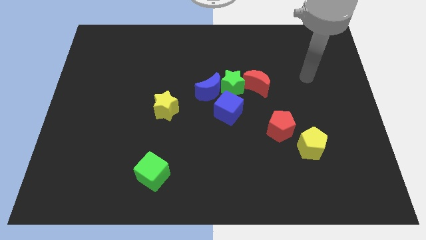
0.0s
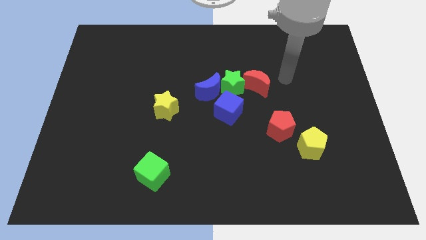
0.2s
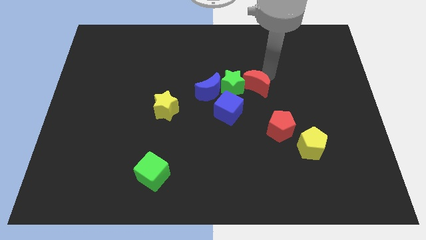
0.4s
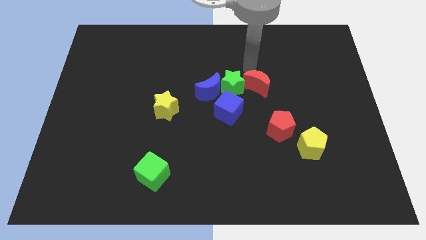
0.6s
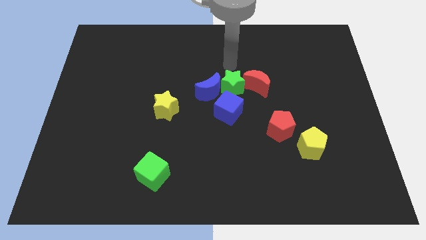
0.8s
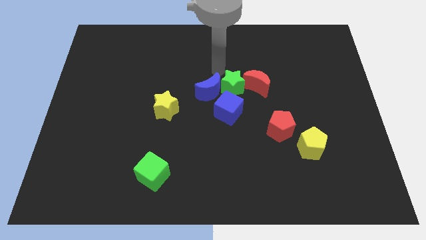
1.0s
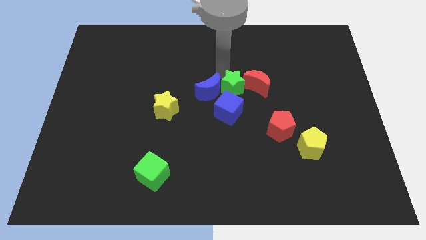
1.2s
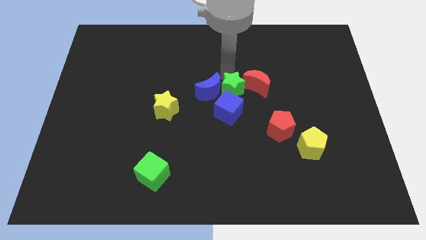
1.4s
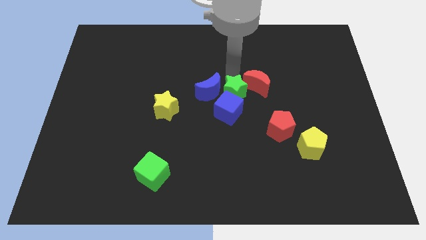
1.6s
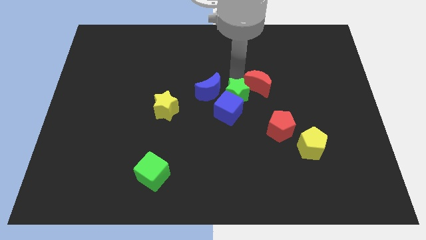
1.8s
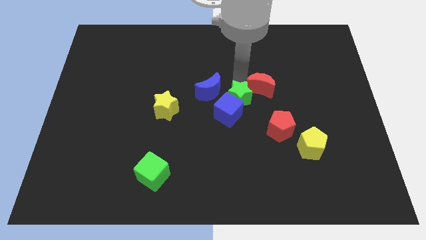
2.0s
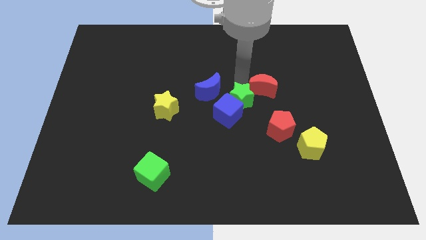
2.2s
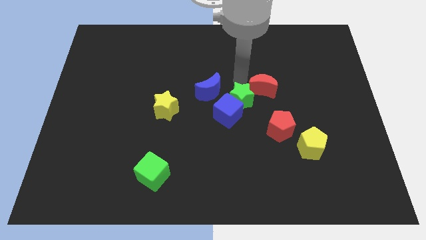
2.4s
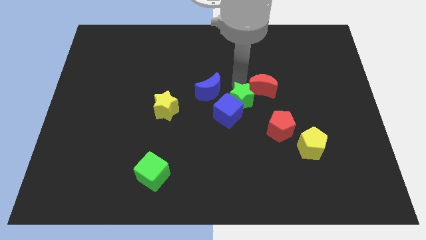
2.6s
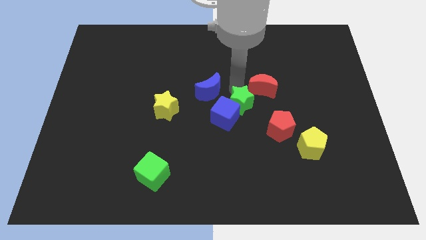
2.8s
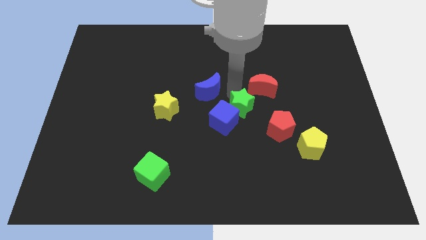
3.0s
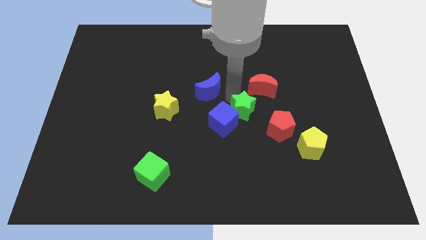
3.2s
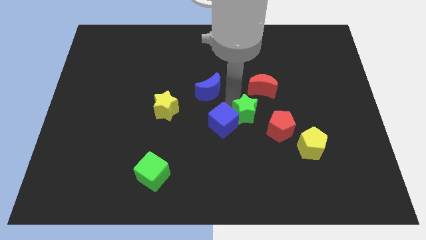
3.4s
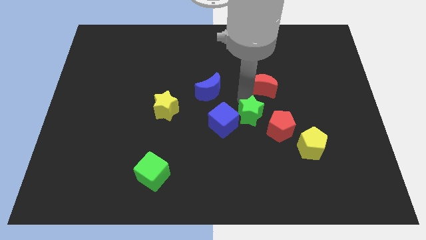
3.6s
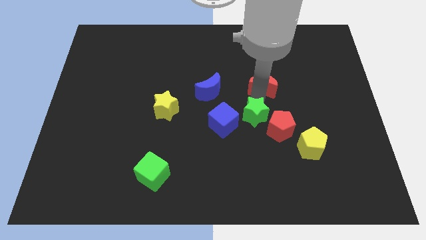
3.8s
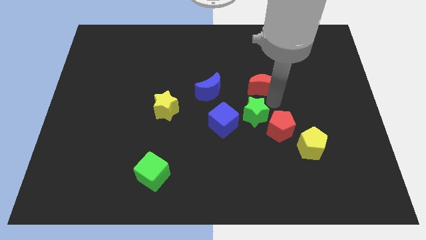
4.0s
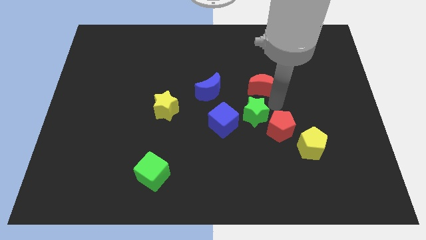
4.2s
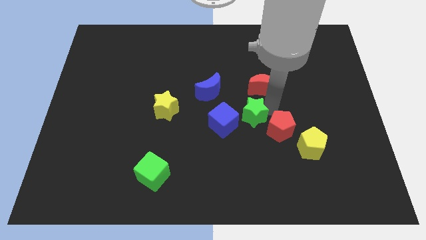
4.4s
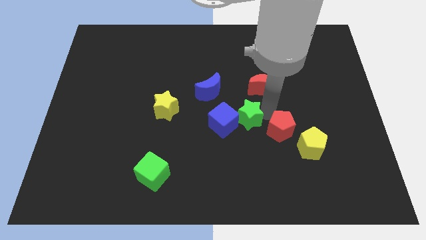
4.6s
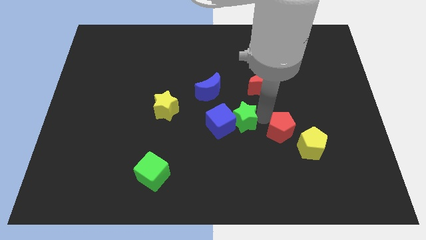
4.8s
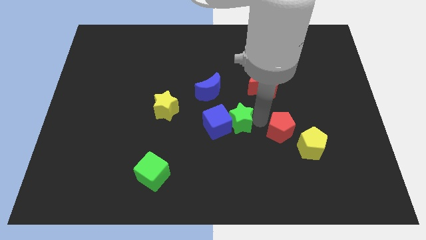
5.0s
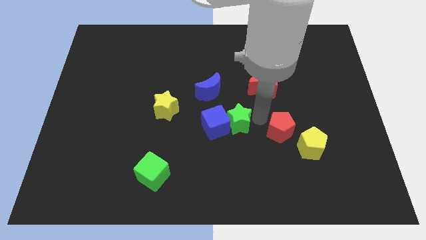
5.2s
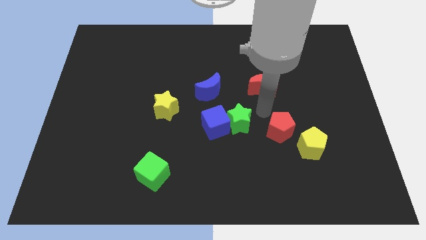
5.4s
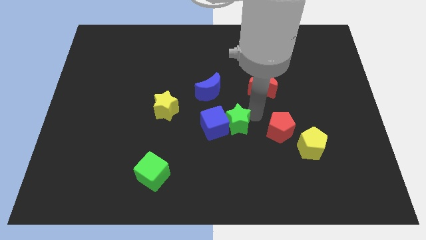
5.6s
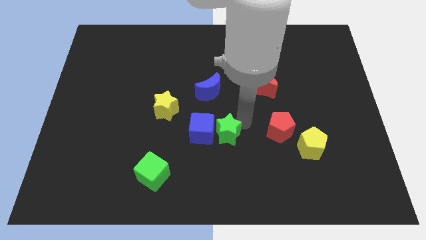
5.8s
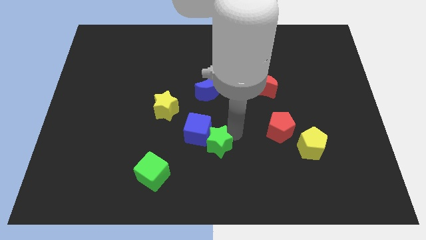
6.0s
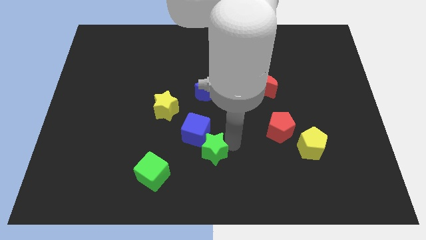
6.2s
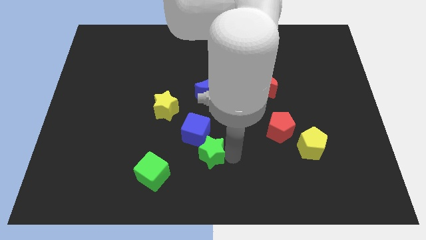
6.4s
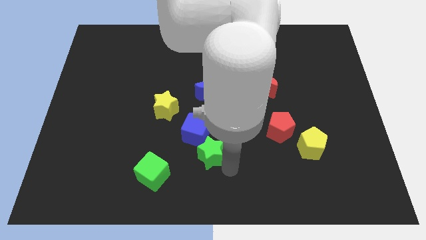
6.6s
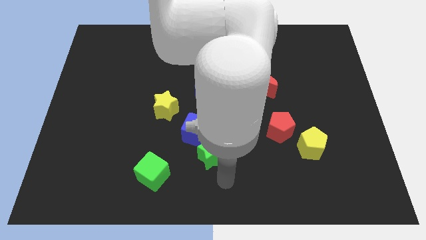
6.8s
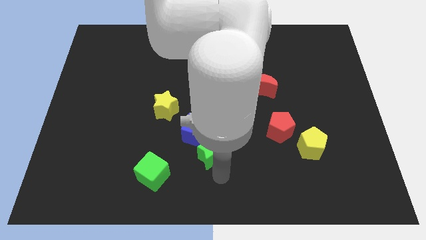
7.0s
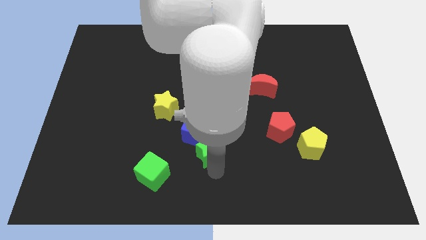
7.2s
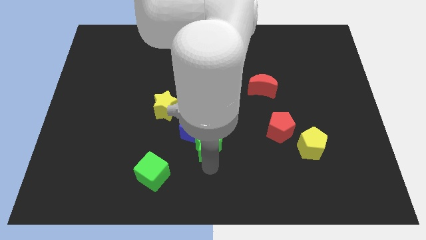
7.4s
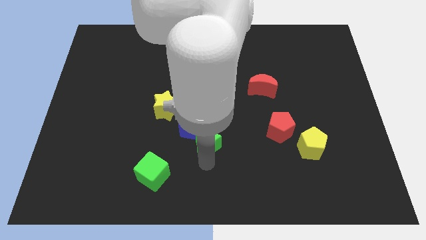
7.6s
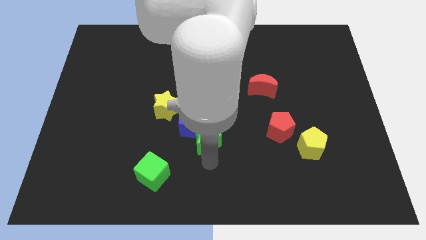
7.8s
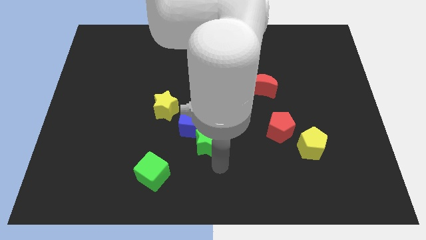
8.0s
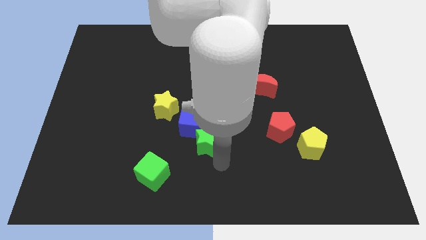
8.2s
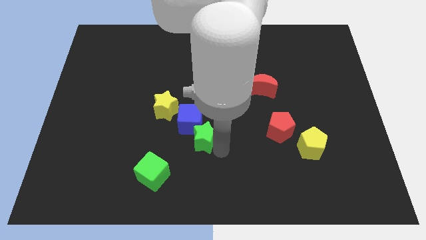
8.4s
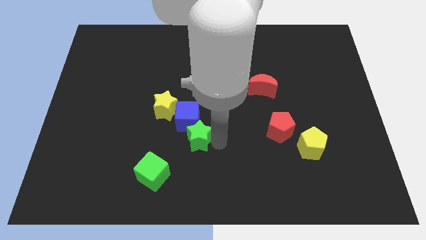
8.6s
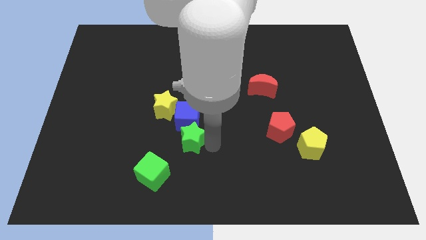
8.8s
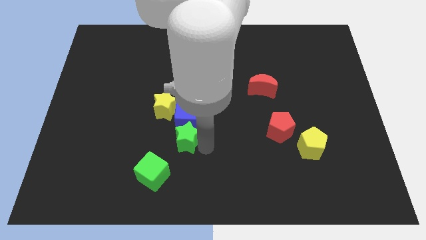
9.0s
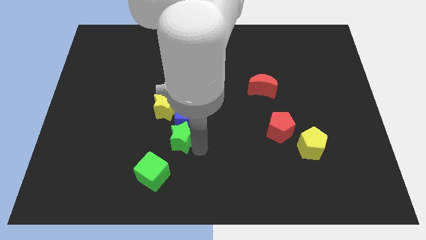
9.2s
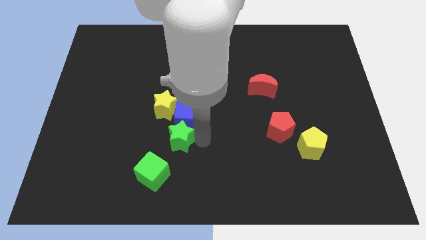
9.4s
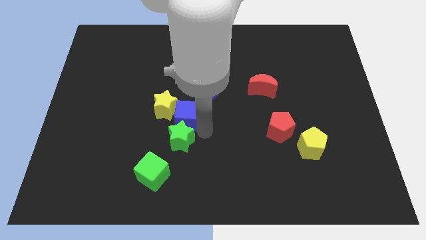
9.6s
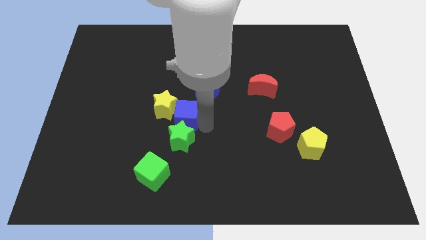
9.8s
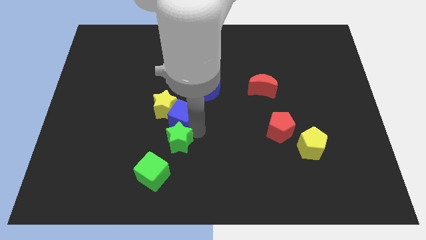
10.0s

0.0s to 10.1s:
push the green star downwards and left diagonally

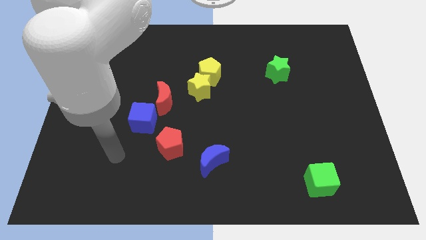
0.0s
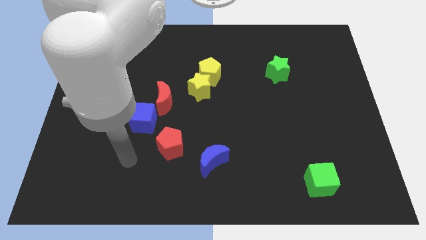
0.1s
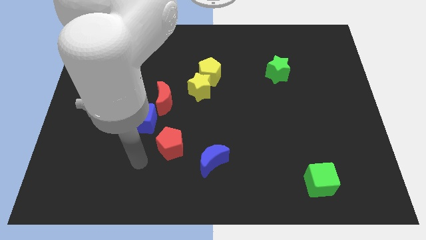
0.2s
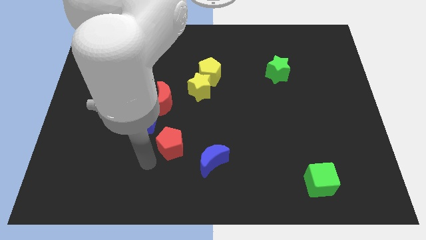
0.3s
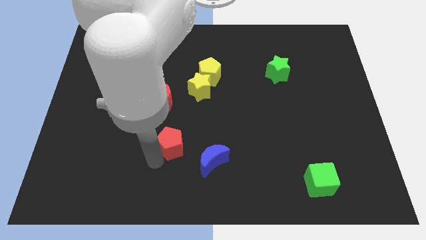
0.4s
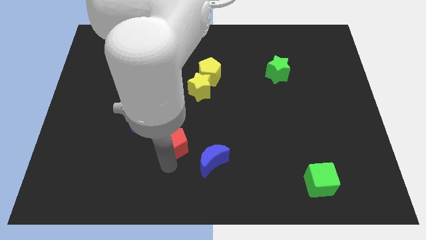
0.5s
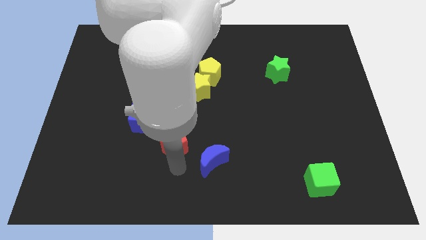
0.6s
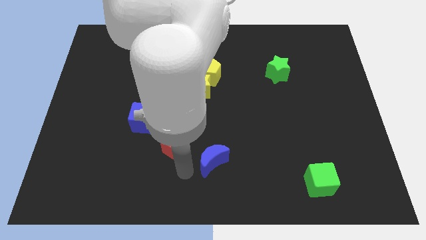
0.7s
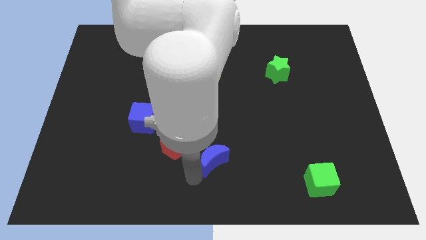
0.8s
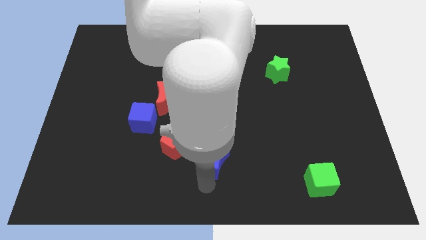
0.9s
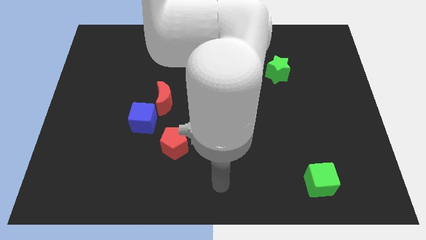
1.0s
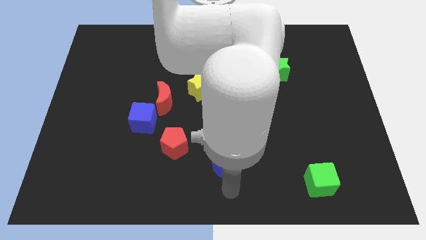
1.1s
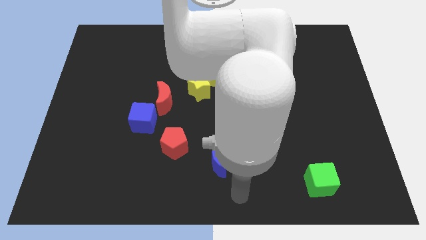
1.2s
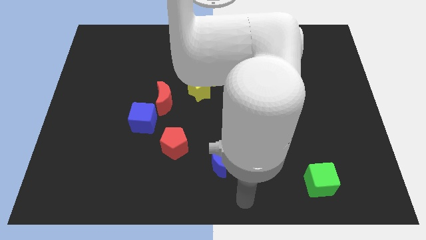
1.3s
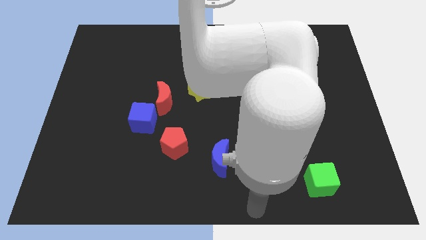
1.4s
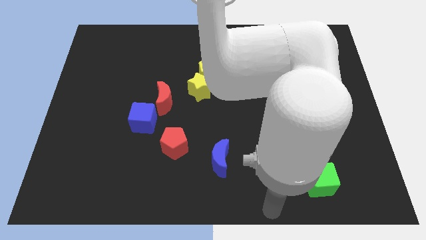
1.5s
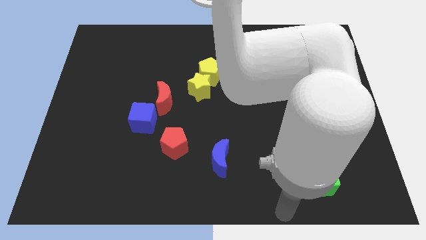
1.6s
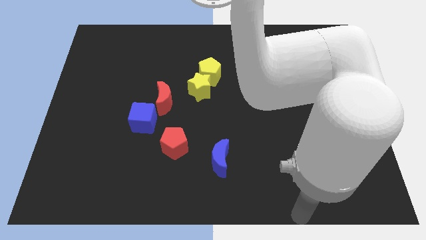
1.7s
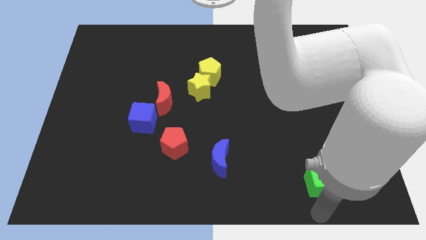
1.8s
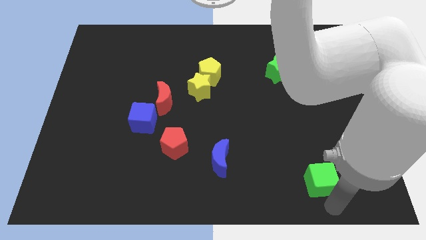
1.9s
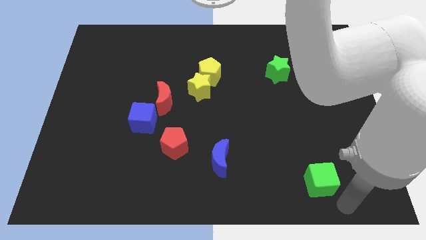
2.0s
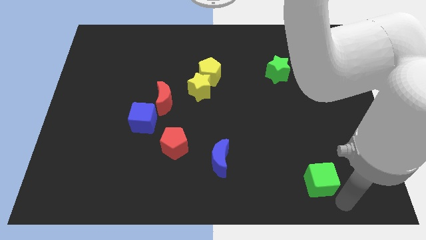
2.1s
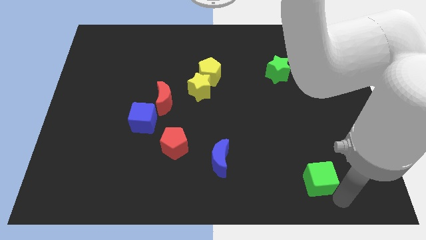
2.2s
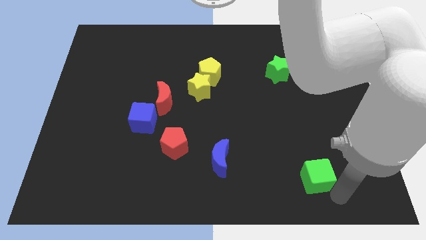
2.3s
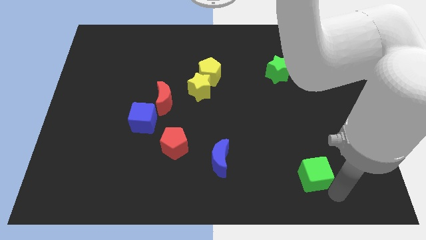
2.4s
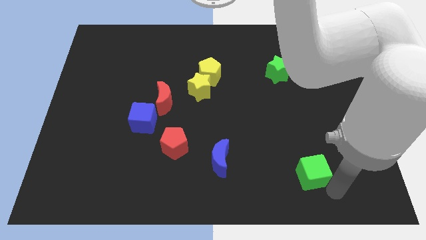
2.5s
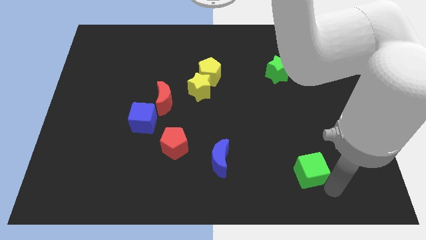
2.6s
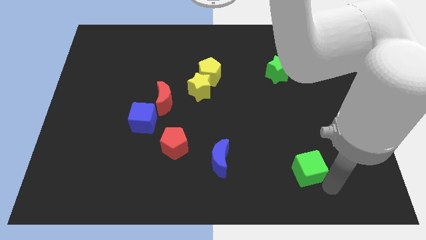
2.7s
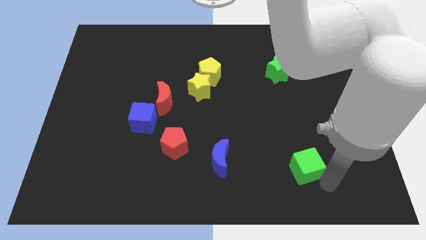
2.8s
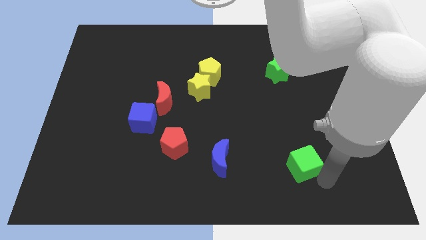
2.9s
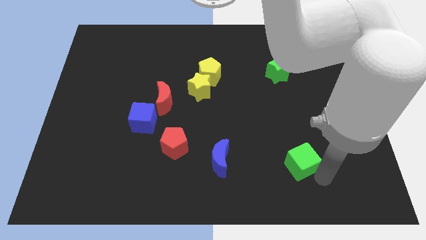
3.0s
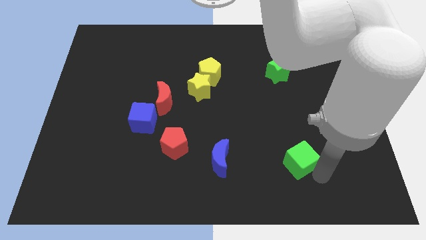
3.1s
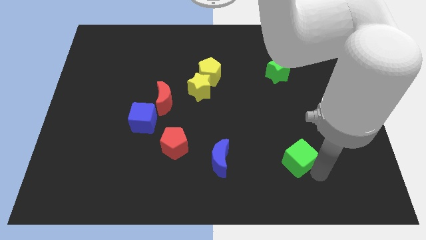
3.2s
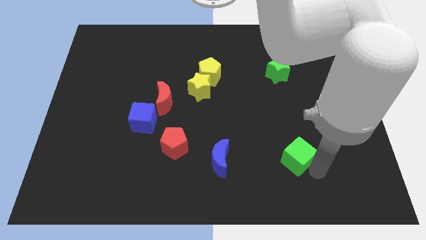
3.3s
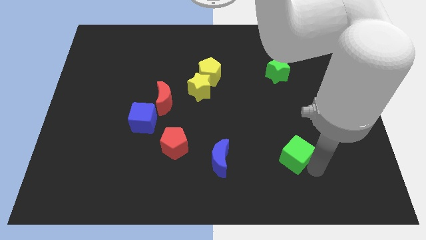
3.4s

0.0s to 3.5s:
slide the green cube up and then to the left a little bit
